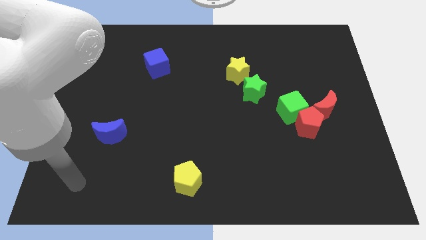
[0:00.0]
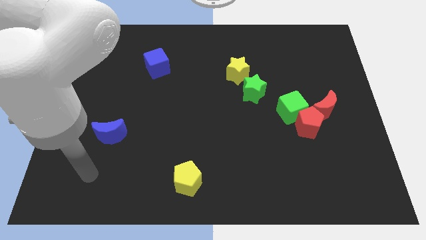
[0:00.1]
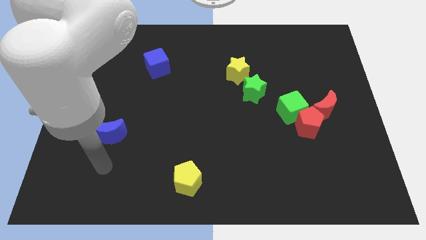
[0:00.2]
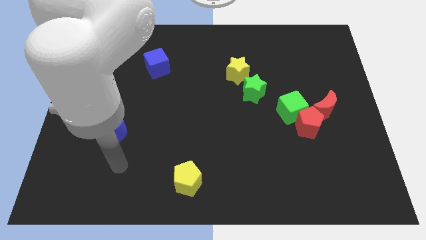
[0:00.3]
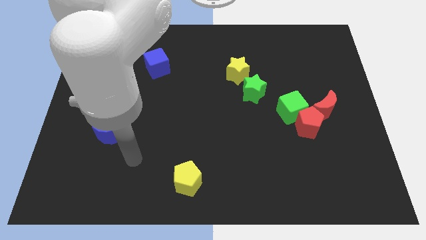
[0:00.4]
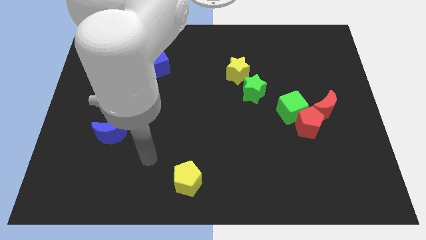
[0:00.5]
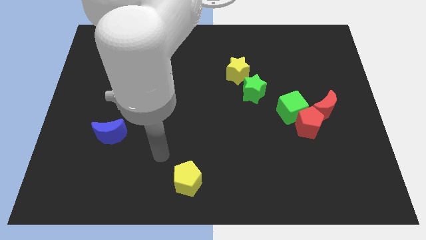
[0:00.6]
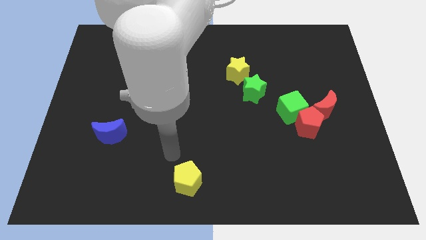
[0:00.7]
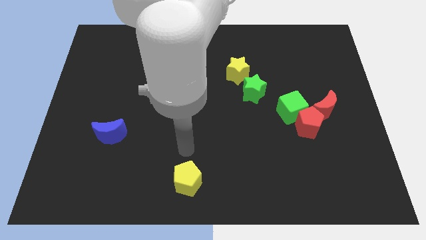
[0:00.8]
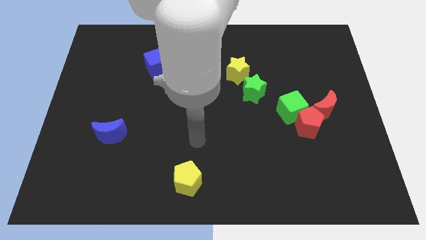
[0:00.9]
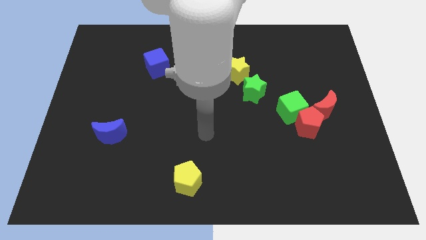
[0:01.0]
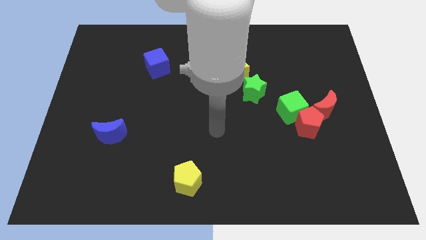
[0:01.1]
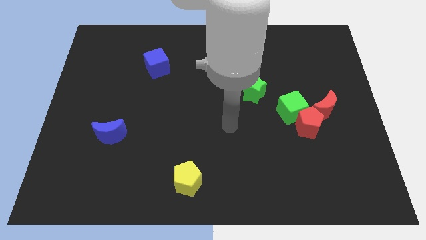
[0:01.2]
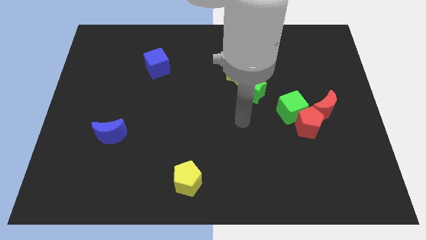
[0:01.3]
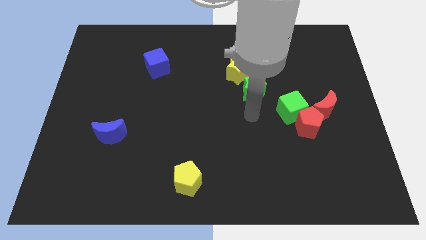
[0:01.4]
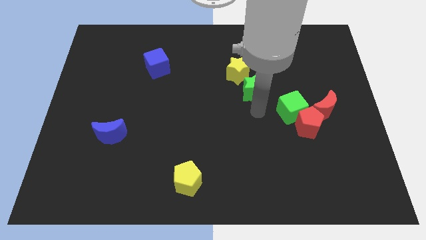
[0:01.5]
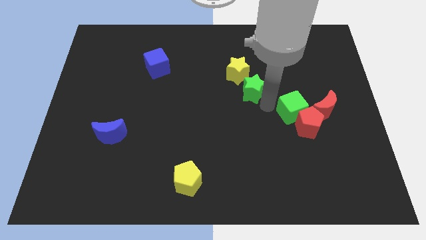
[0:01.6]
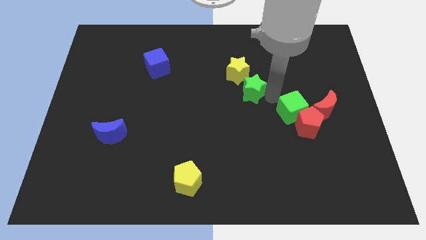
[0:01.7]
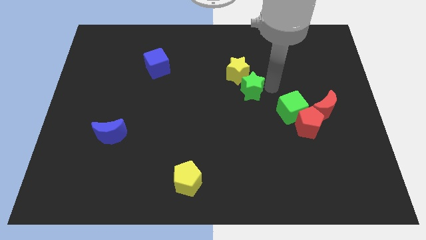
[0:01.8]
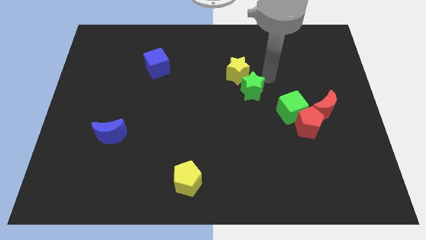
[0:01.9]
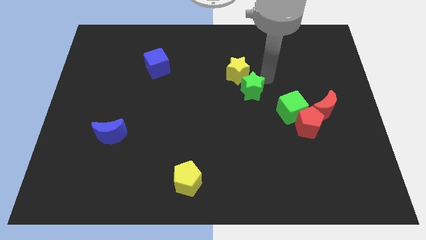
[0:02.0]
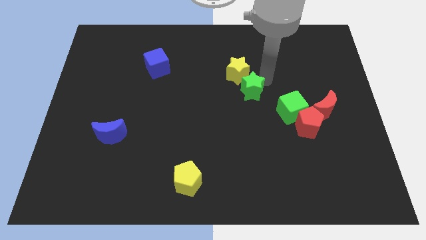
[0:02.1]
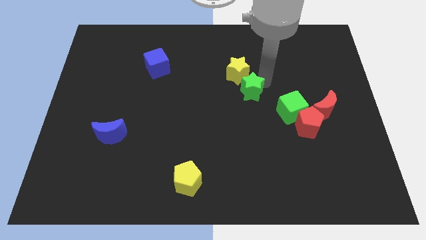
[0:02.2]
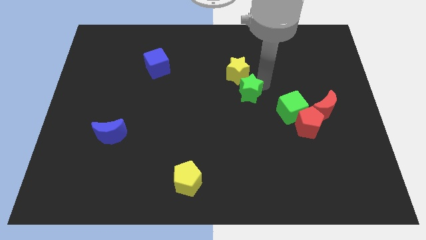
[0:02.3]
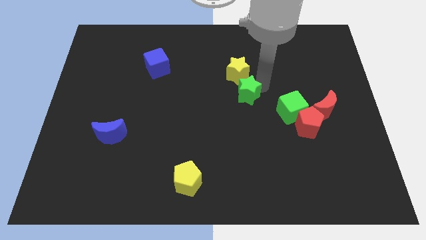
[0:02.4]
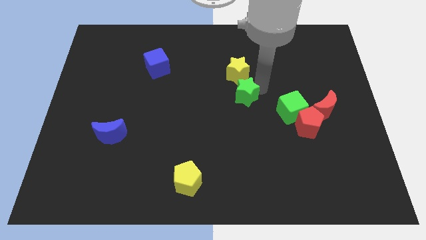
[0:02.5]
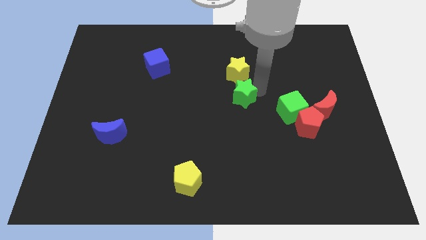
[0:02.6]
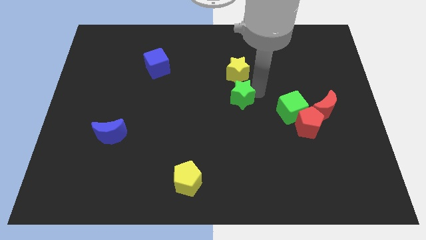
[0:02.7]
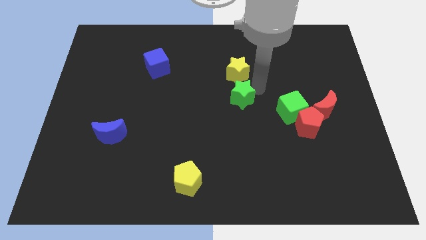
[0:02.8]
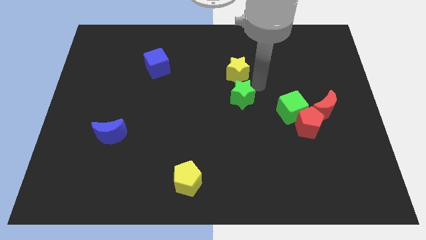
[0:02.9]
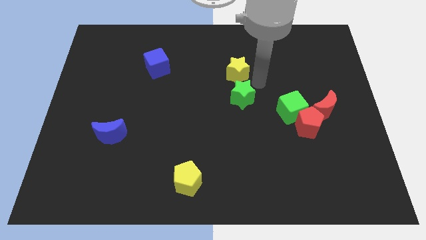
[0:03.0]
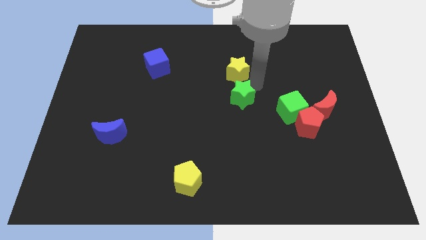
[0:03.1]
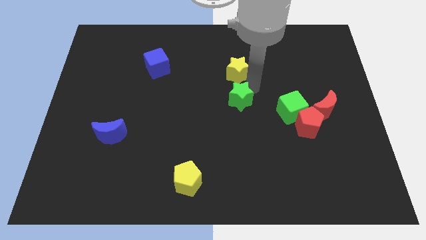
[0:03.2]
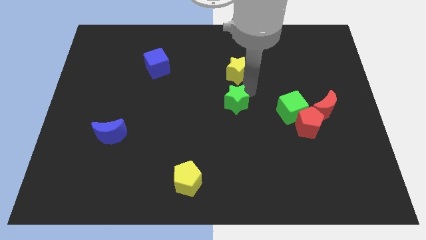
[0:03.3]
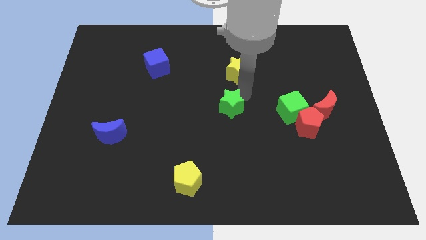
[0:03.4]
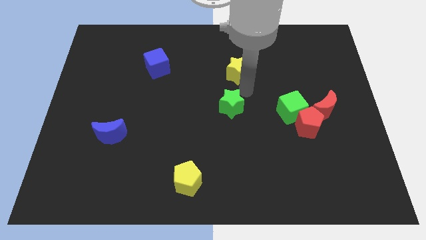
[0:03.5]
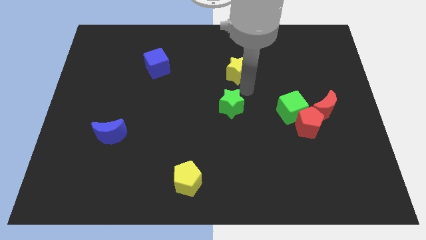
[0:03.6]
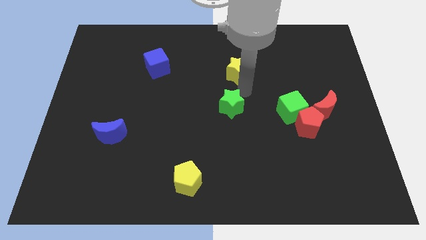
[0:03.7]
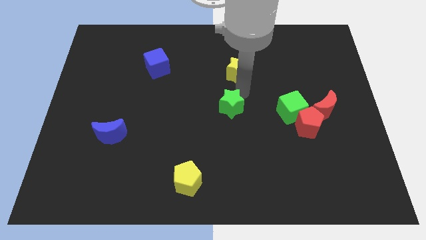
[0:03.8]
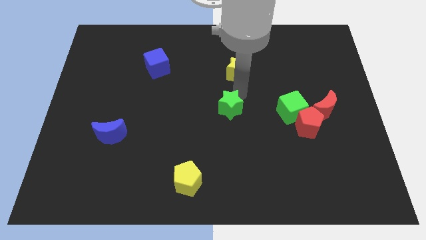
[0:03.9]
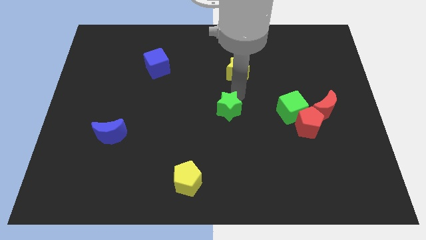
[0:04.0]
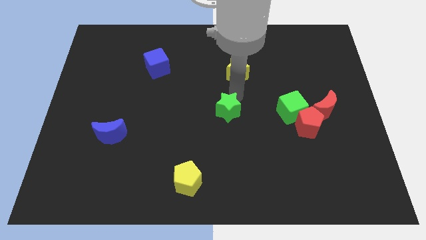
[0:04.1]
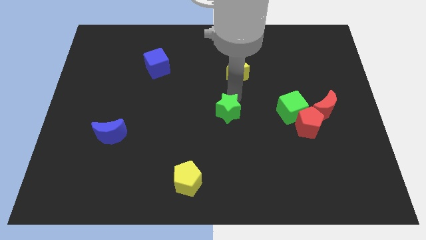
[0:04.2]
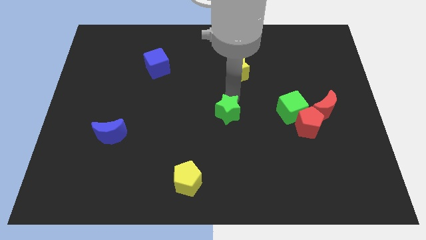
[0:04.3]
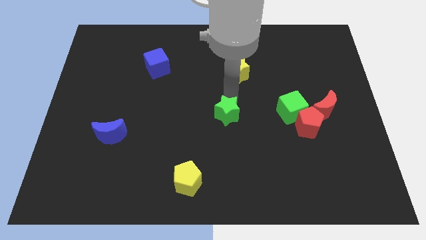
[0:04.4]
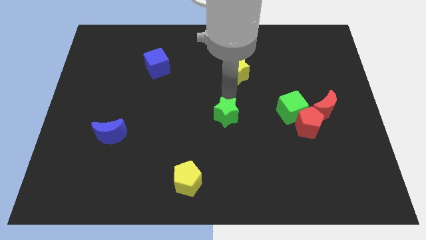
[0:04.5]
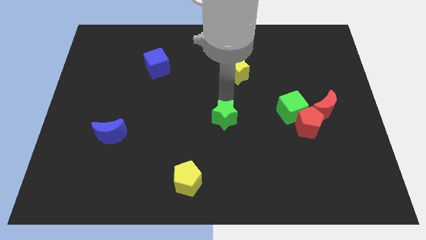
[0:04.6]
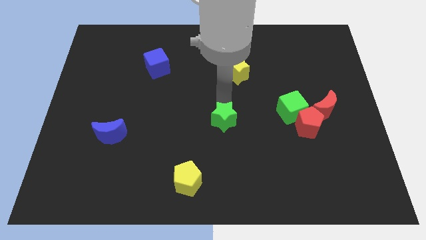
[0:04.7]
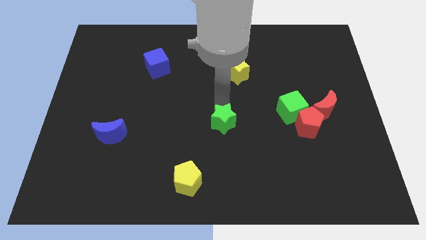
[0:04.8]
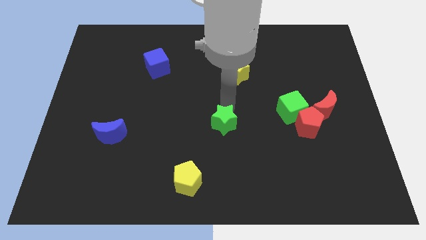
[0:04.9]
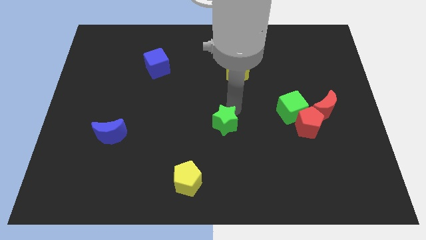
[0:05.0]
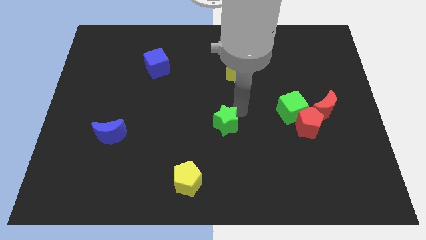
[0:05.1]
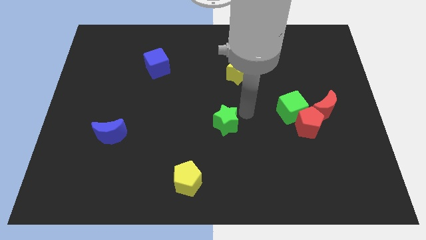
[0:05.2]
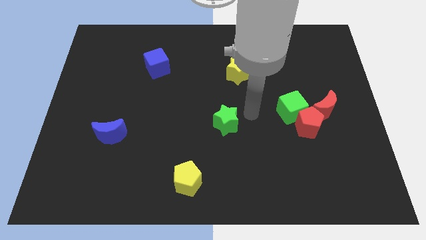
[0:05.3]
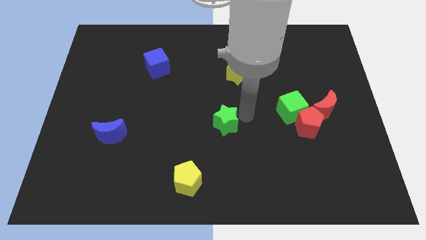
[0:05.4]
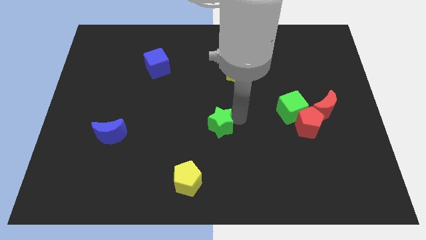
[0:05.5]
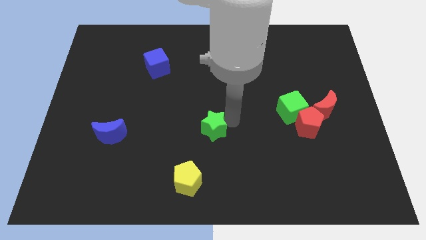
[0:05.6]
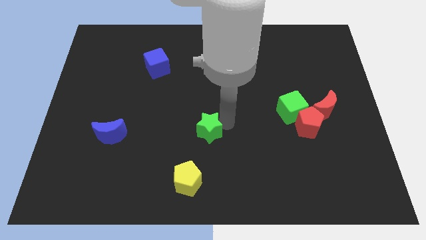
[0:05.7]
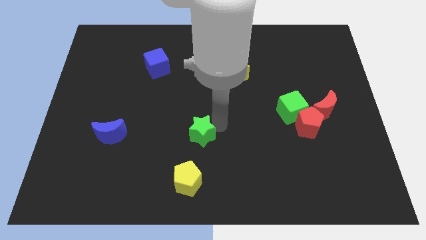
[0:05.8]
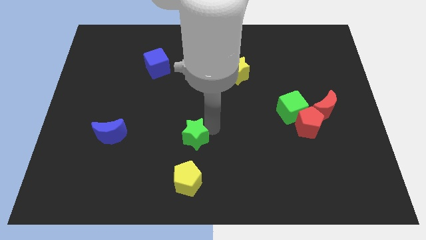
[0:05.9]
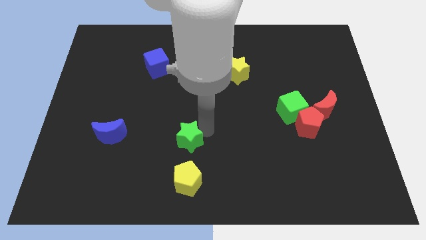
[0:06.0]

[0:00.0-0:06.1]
push the green star down and then left

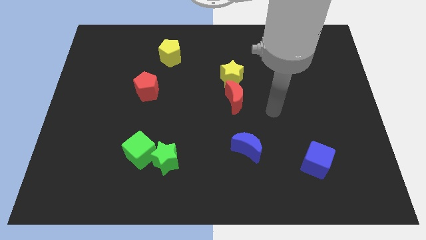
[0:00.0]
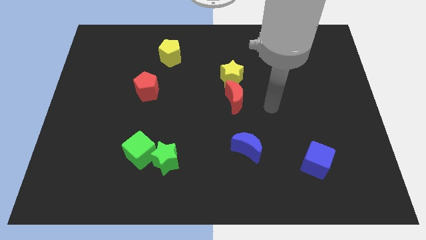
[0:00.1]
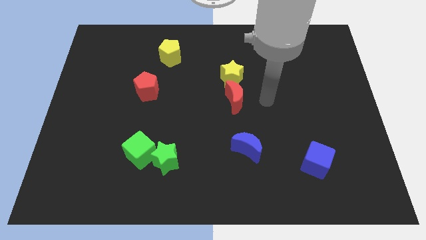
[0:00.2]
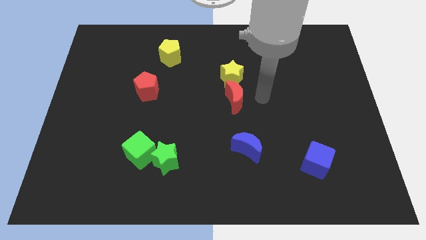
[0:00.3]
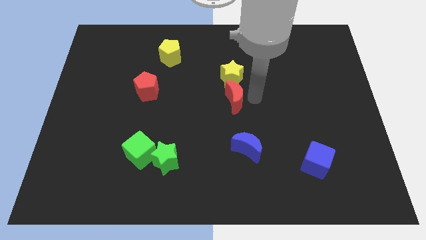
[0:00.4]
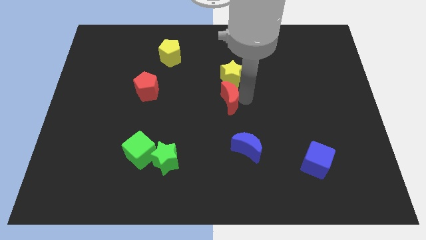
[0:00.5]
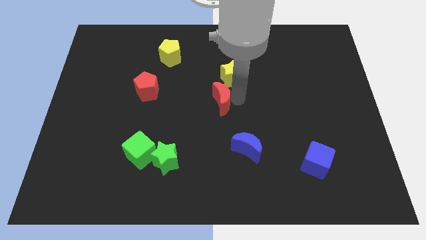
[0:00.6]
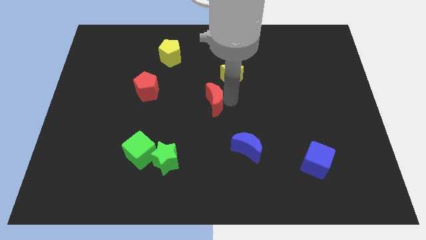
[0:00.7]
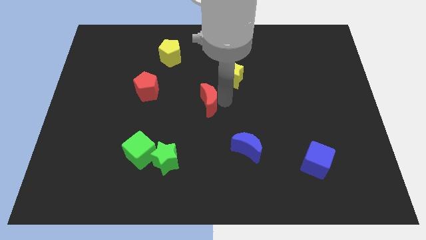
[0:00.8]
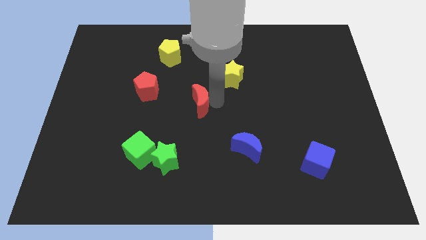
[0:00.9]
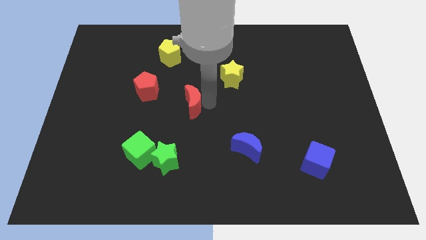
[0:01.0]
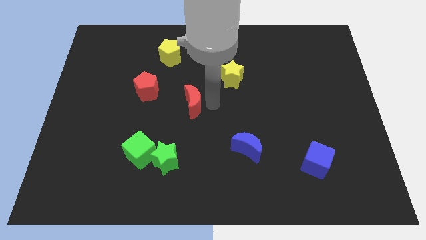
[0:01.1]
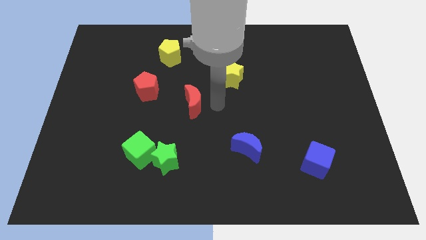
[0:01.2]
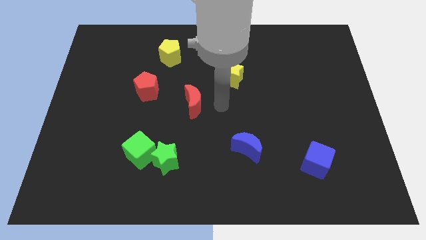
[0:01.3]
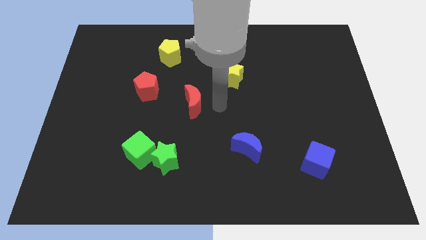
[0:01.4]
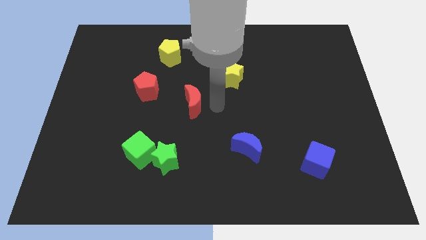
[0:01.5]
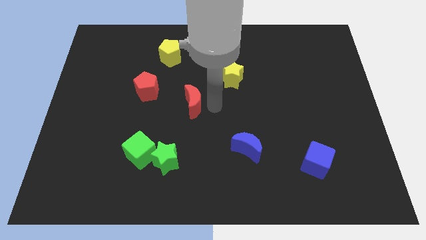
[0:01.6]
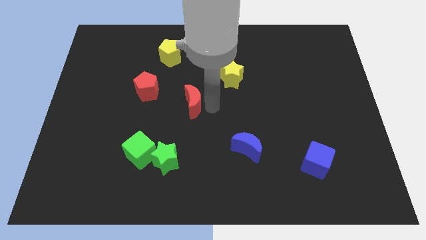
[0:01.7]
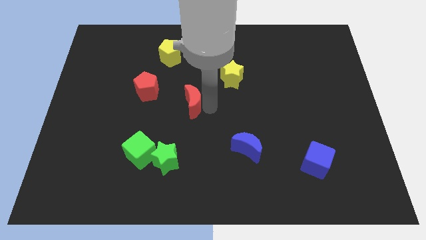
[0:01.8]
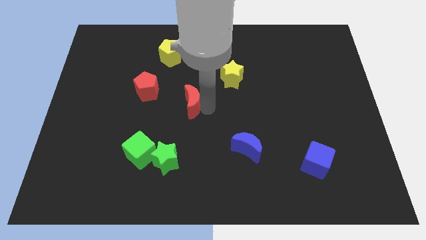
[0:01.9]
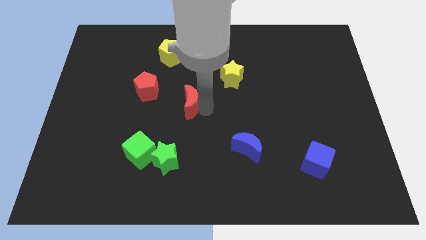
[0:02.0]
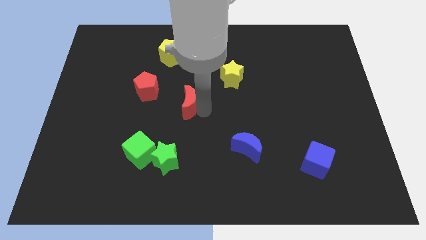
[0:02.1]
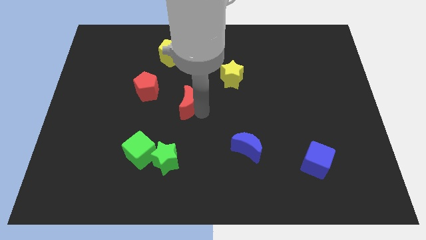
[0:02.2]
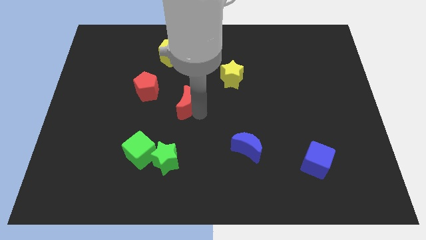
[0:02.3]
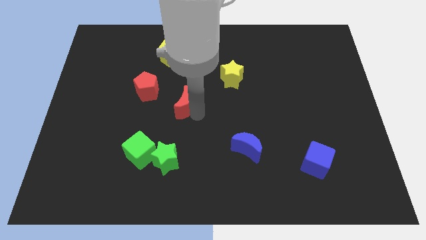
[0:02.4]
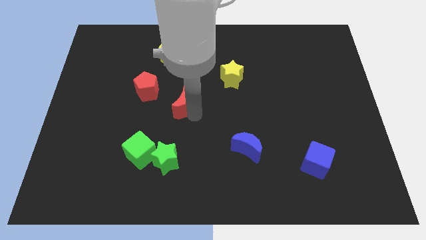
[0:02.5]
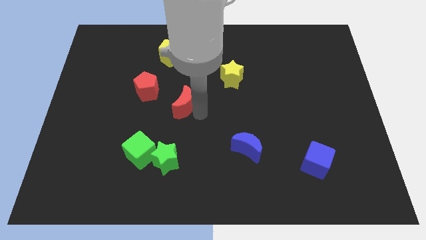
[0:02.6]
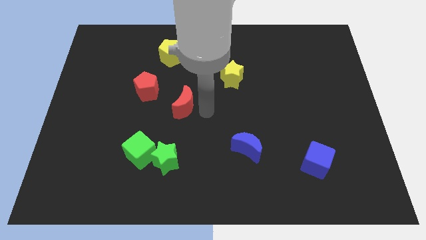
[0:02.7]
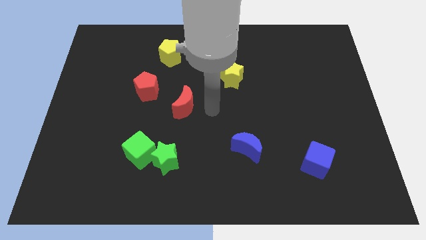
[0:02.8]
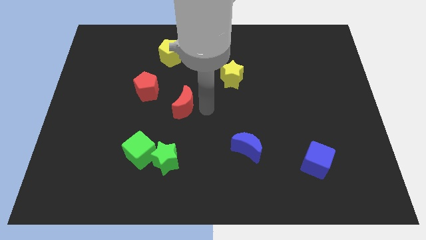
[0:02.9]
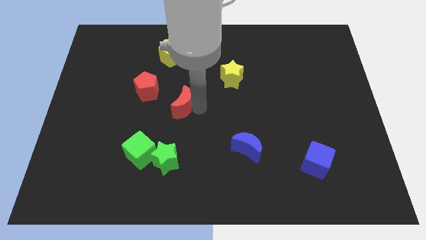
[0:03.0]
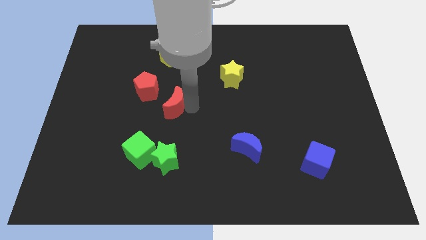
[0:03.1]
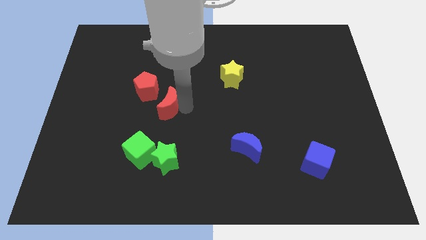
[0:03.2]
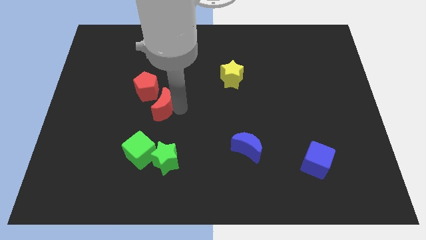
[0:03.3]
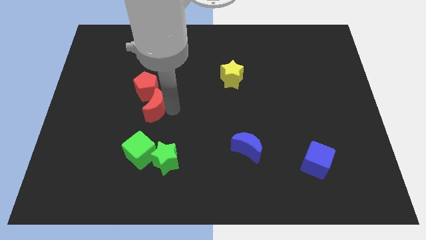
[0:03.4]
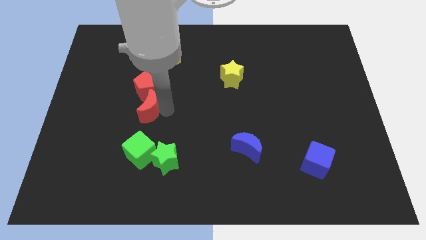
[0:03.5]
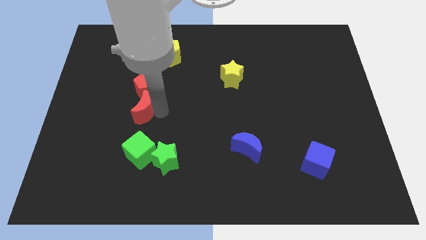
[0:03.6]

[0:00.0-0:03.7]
move the red moon left
